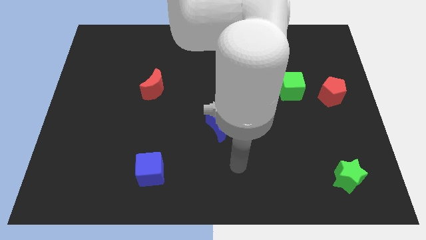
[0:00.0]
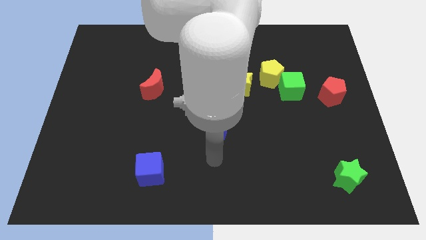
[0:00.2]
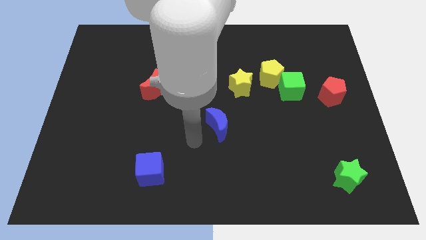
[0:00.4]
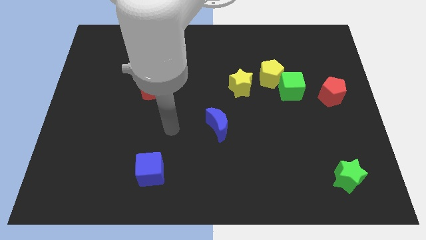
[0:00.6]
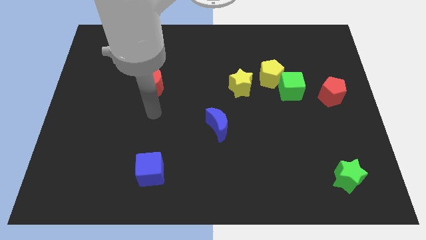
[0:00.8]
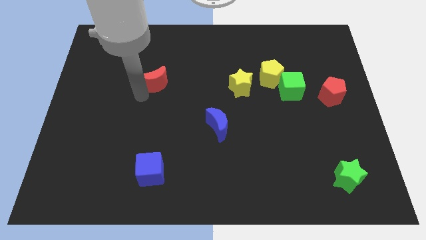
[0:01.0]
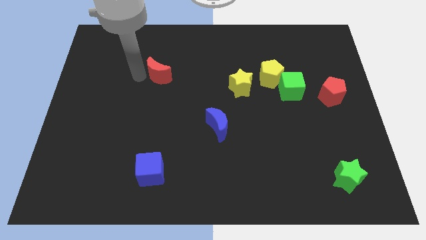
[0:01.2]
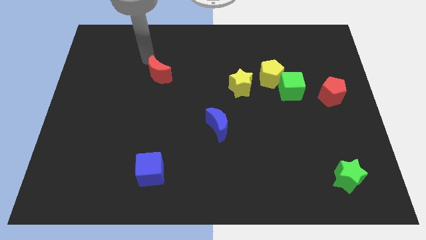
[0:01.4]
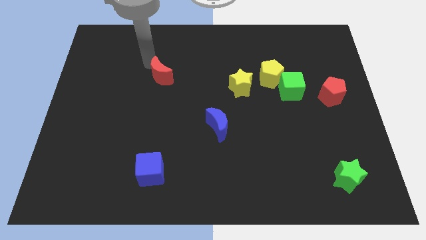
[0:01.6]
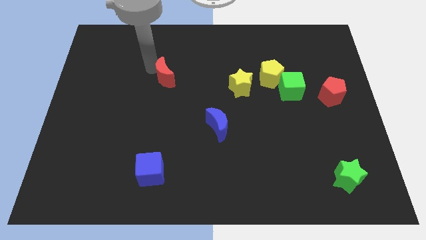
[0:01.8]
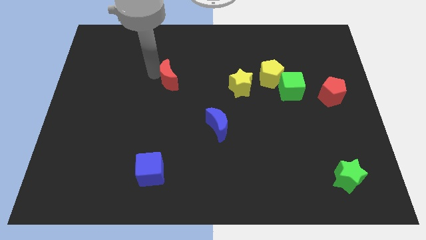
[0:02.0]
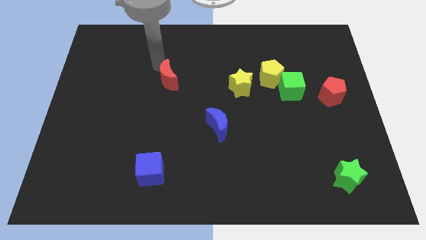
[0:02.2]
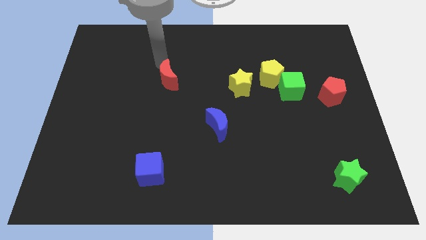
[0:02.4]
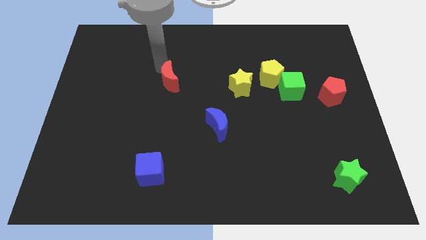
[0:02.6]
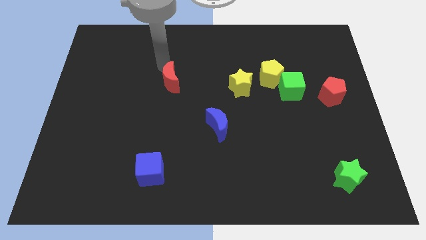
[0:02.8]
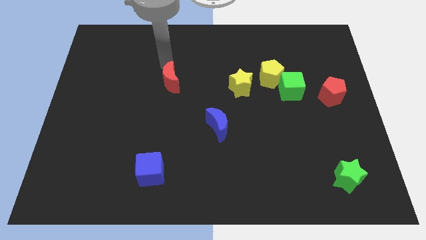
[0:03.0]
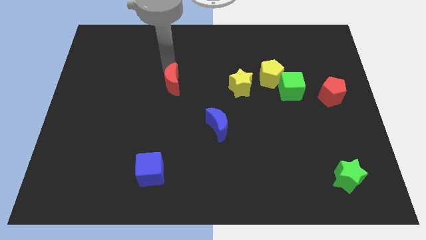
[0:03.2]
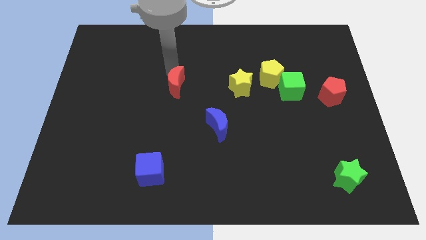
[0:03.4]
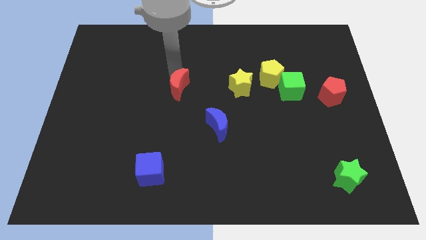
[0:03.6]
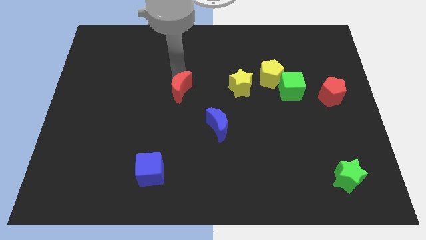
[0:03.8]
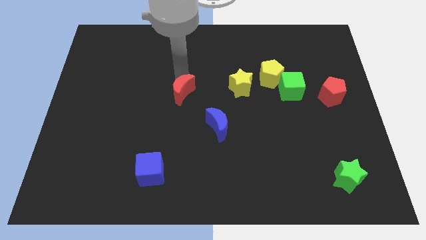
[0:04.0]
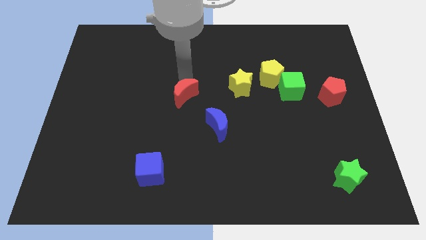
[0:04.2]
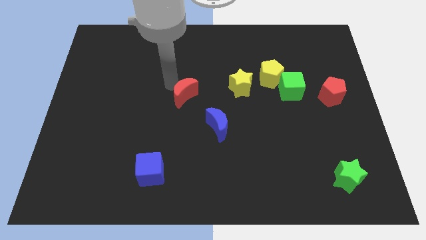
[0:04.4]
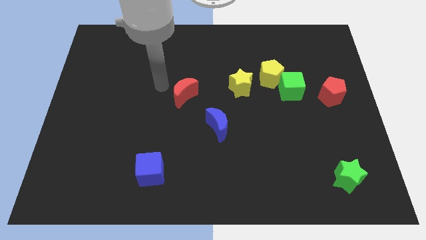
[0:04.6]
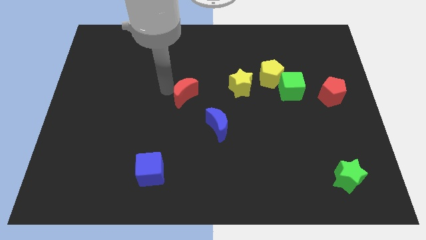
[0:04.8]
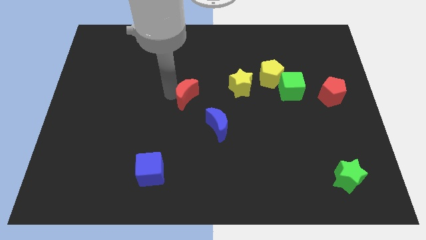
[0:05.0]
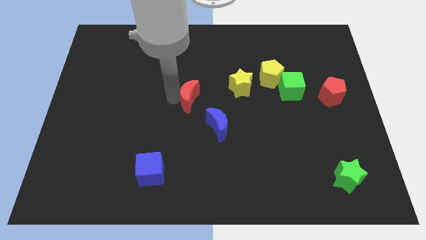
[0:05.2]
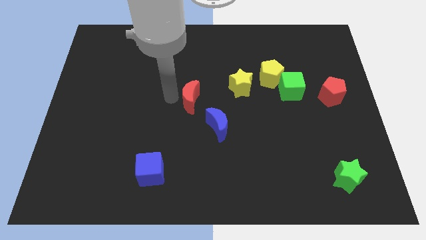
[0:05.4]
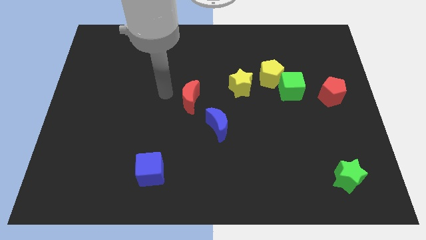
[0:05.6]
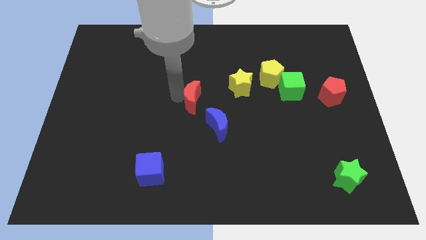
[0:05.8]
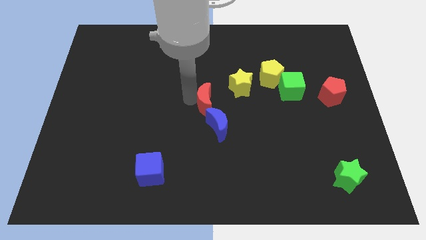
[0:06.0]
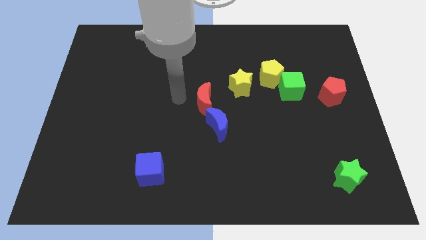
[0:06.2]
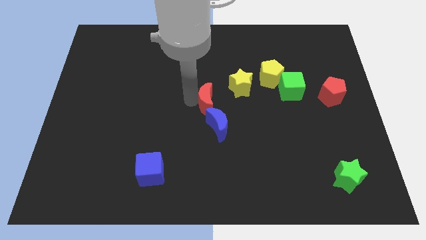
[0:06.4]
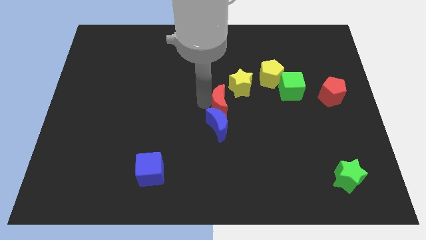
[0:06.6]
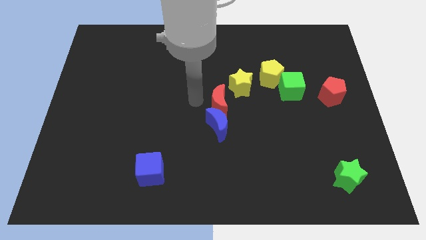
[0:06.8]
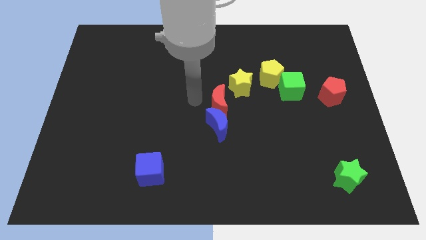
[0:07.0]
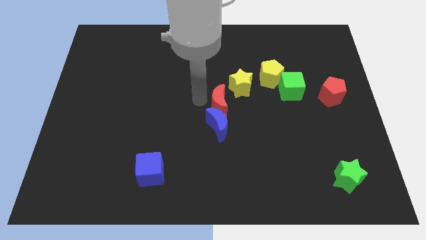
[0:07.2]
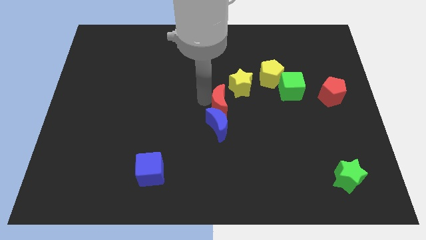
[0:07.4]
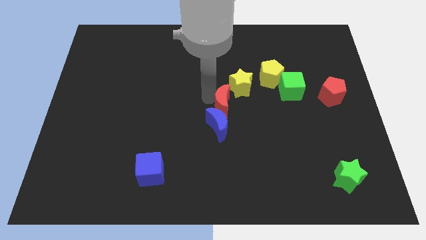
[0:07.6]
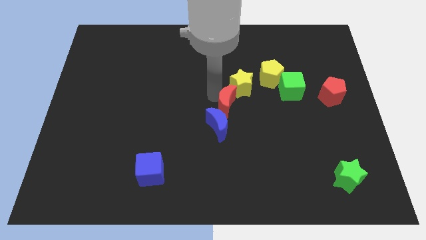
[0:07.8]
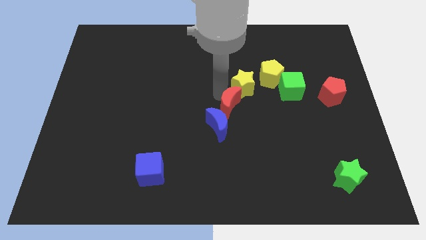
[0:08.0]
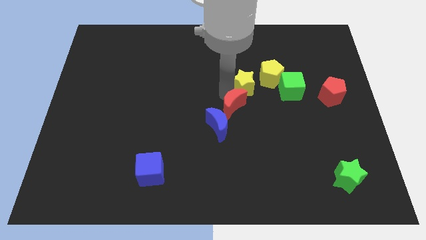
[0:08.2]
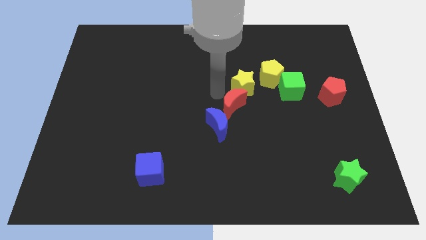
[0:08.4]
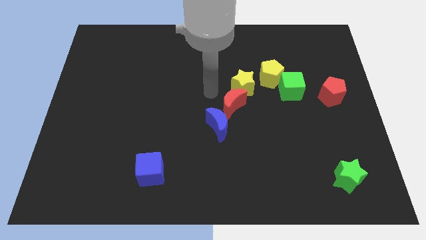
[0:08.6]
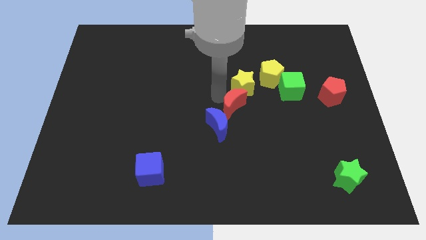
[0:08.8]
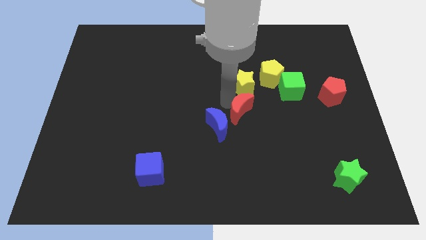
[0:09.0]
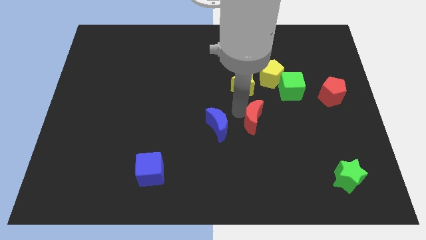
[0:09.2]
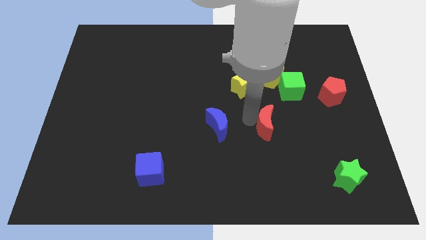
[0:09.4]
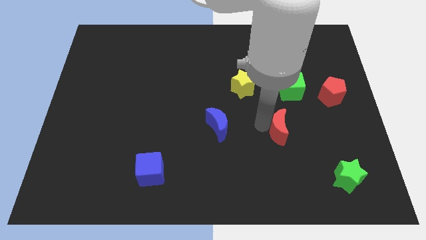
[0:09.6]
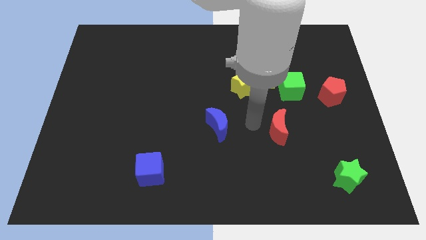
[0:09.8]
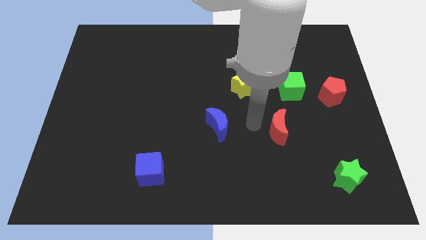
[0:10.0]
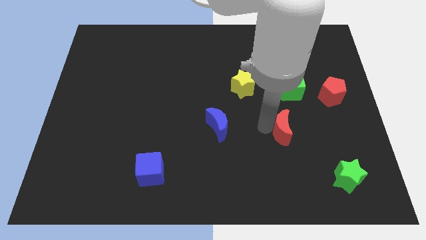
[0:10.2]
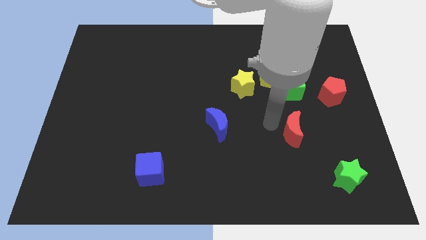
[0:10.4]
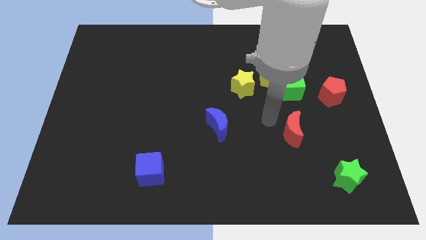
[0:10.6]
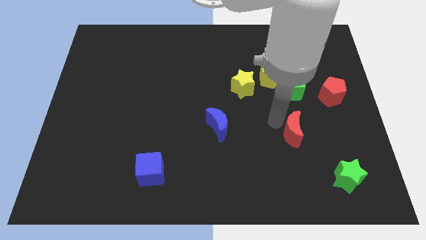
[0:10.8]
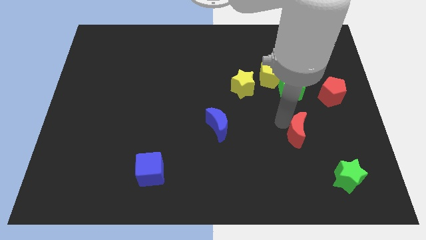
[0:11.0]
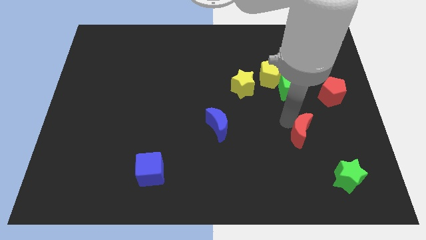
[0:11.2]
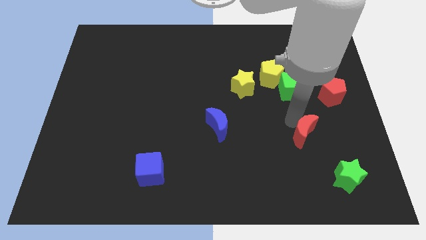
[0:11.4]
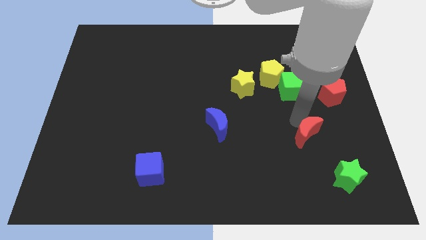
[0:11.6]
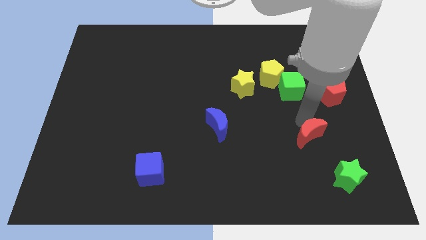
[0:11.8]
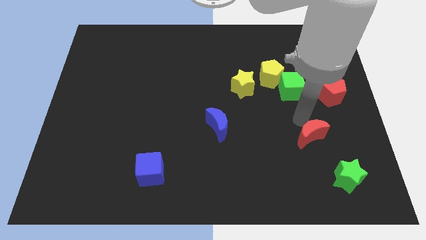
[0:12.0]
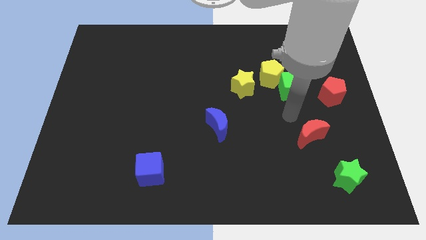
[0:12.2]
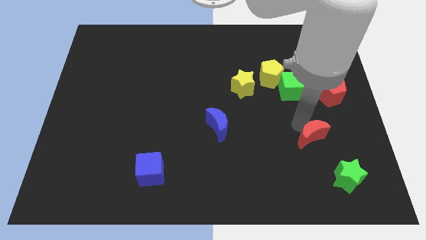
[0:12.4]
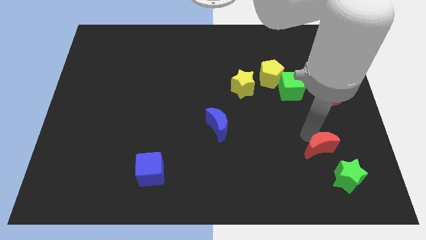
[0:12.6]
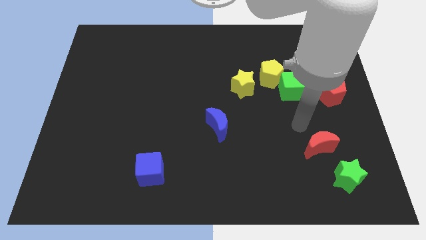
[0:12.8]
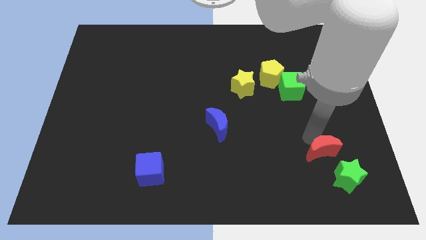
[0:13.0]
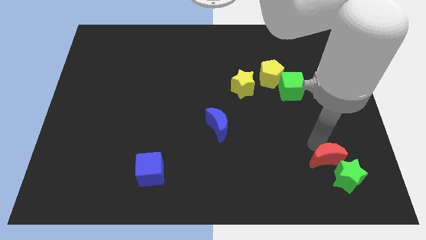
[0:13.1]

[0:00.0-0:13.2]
push the red moon next to the green star
